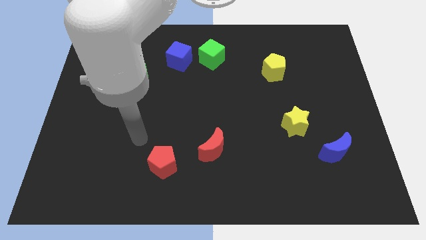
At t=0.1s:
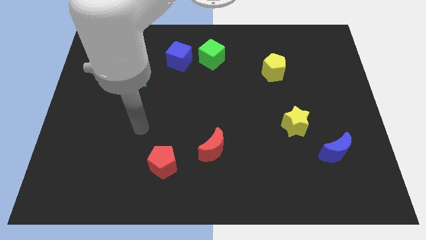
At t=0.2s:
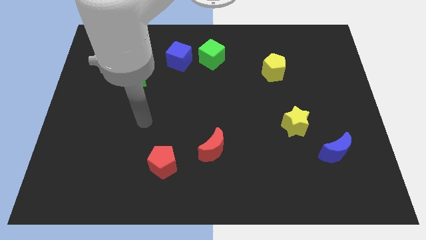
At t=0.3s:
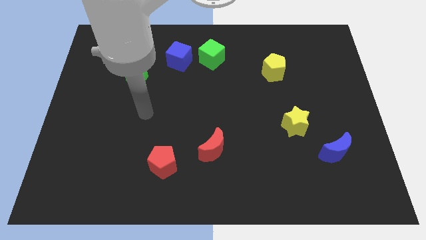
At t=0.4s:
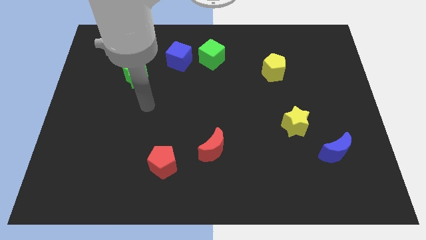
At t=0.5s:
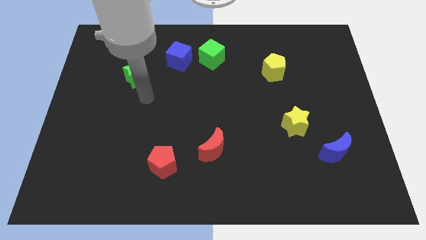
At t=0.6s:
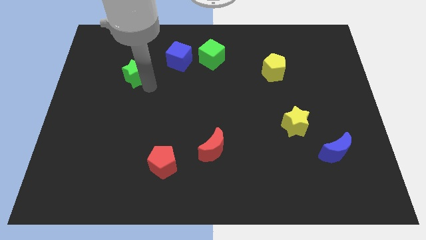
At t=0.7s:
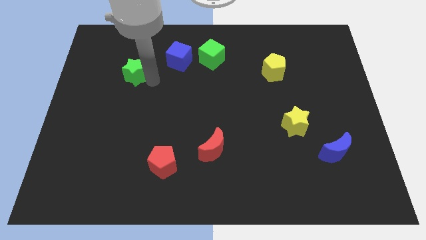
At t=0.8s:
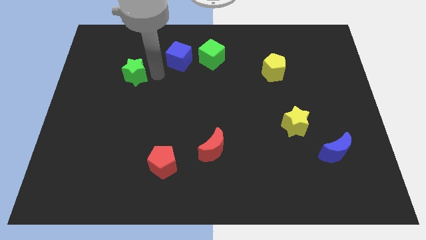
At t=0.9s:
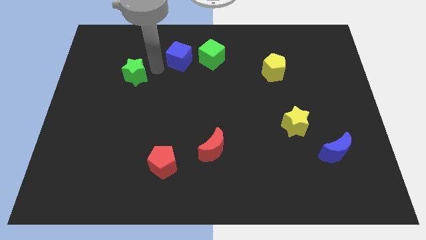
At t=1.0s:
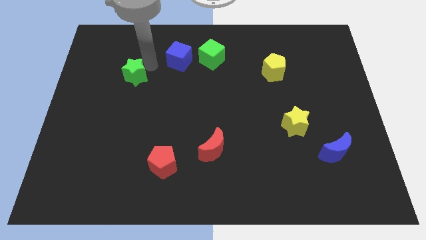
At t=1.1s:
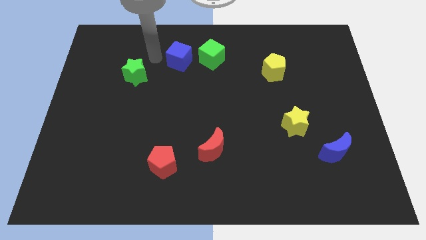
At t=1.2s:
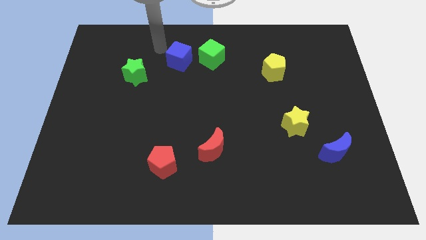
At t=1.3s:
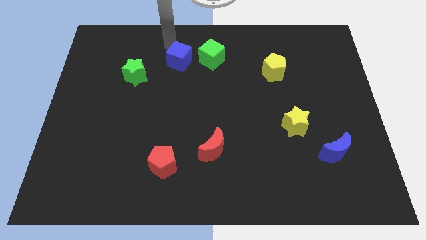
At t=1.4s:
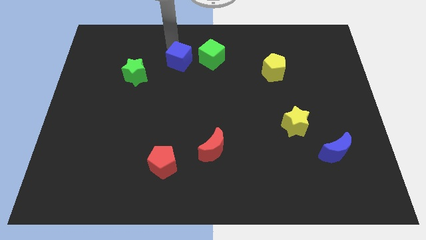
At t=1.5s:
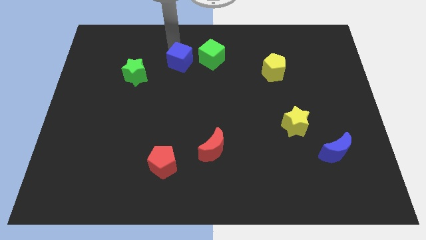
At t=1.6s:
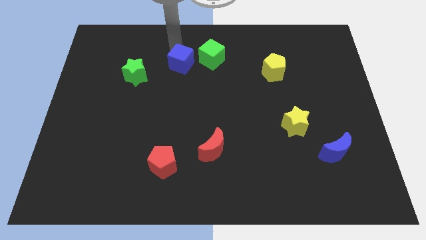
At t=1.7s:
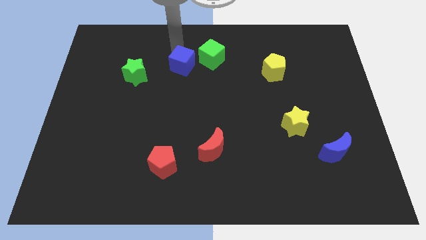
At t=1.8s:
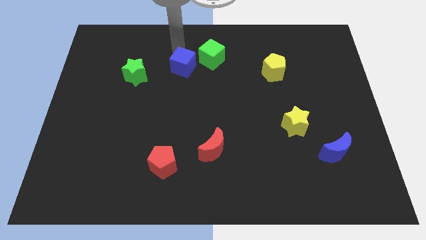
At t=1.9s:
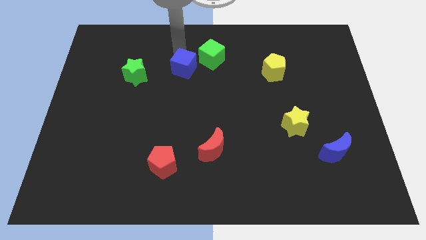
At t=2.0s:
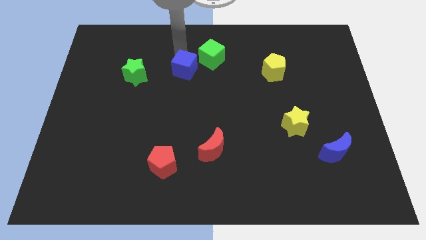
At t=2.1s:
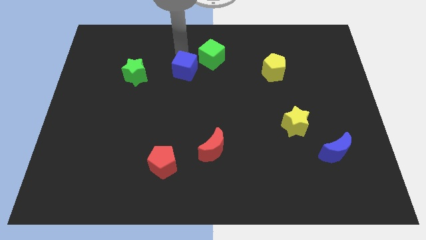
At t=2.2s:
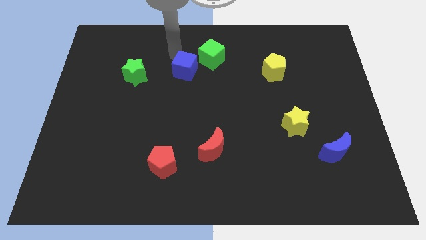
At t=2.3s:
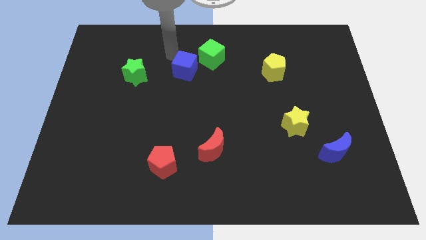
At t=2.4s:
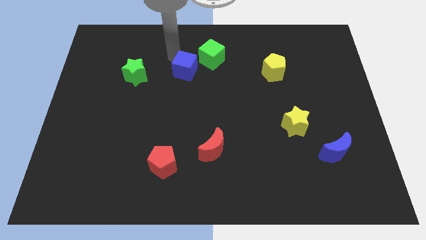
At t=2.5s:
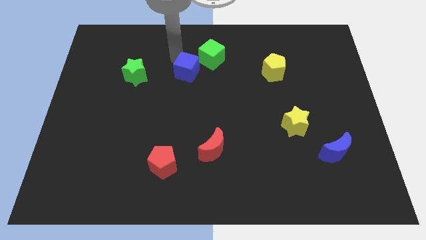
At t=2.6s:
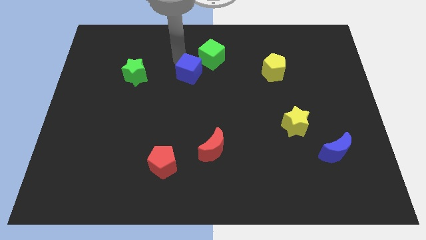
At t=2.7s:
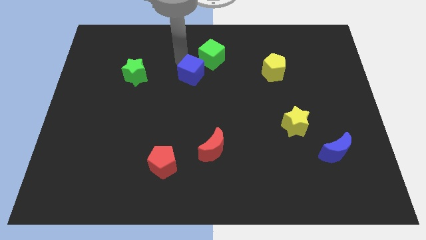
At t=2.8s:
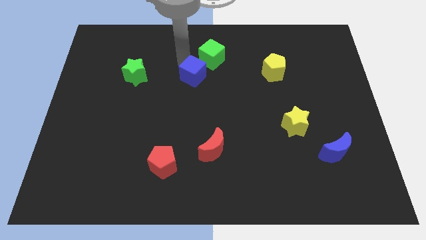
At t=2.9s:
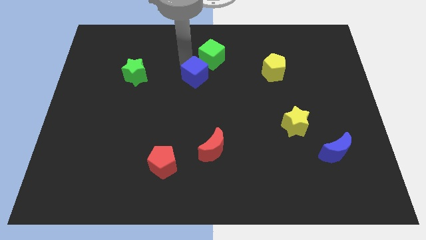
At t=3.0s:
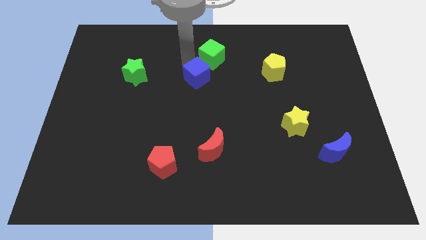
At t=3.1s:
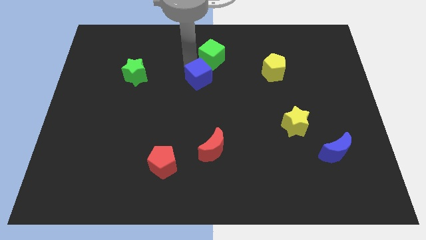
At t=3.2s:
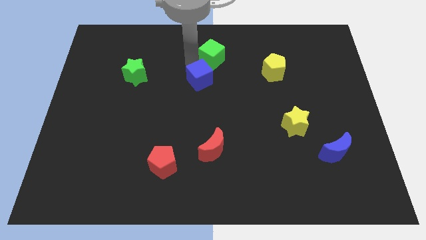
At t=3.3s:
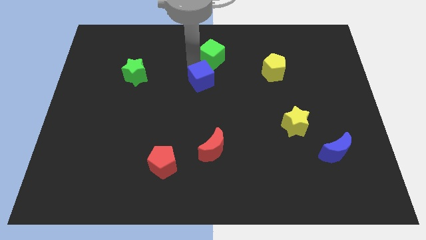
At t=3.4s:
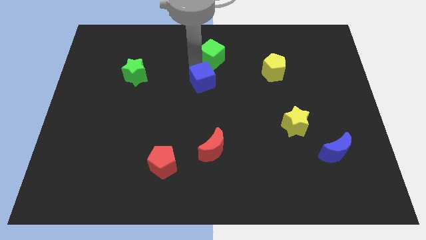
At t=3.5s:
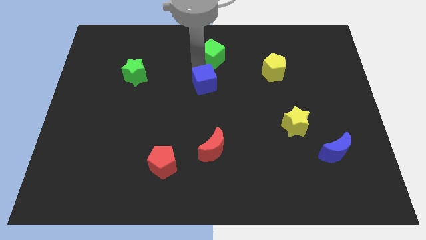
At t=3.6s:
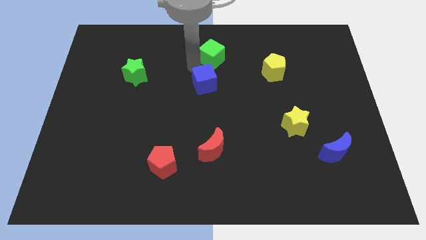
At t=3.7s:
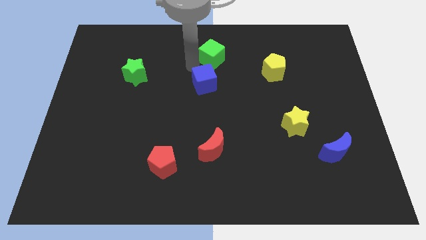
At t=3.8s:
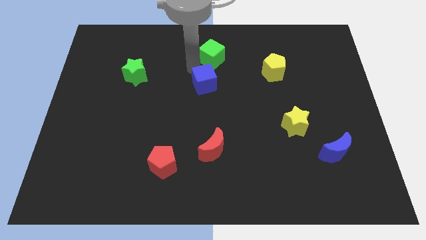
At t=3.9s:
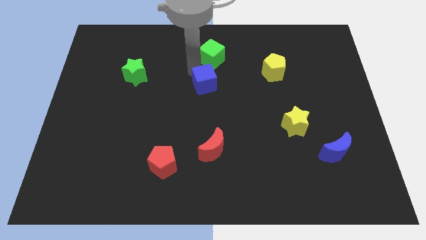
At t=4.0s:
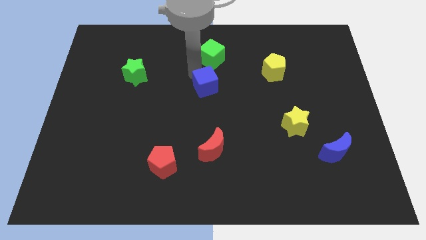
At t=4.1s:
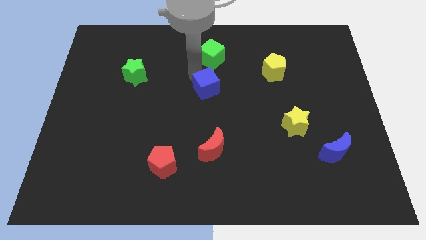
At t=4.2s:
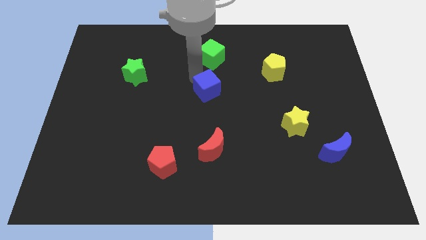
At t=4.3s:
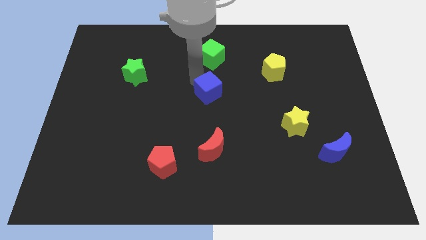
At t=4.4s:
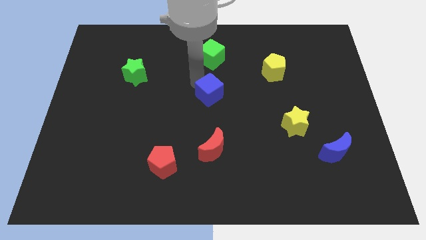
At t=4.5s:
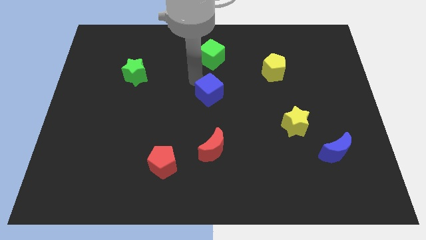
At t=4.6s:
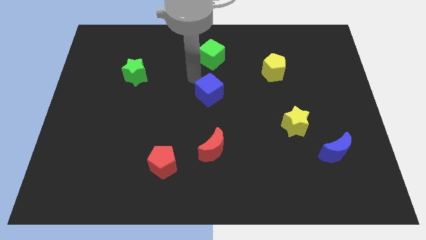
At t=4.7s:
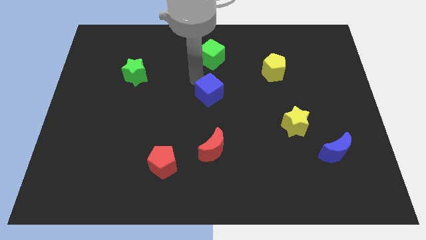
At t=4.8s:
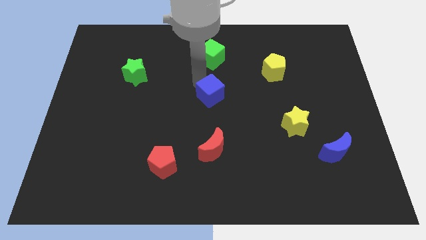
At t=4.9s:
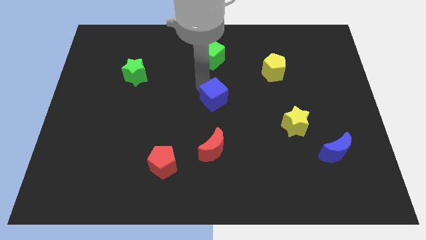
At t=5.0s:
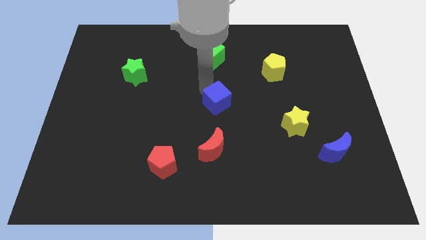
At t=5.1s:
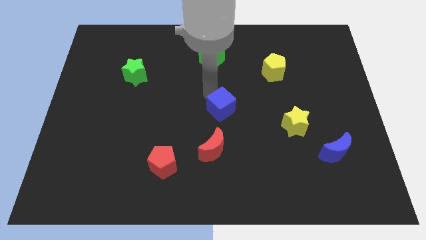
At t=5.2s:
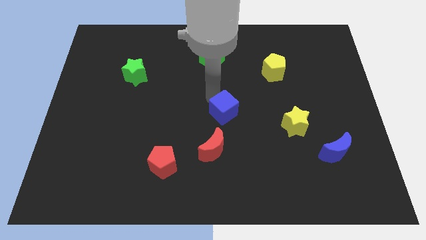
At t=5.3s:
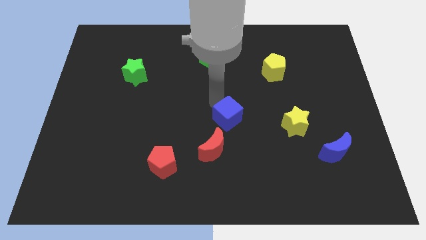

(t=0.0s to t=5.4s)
move the blue cube left of the yellow star

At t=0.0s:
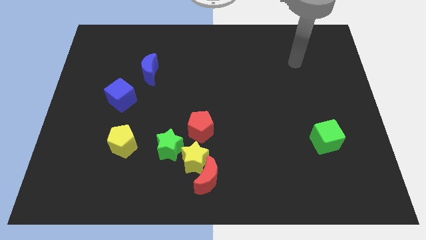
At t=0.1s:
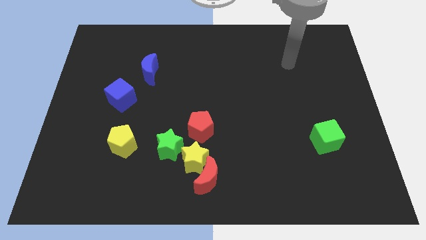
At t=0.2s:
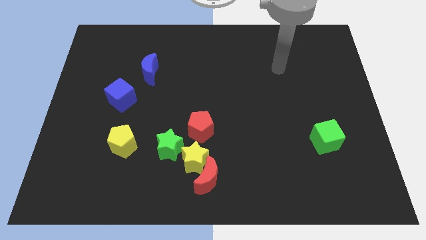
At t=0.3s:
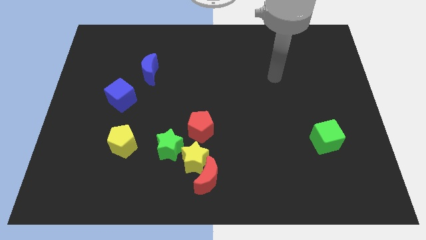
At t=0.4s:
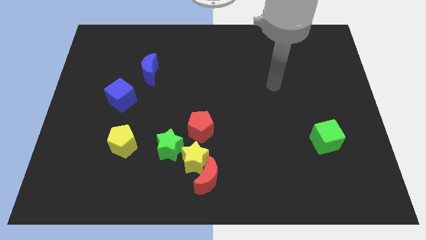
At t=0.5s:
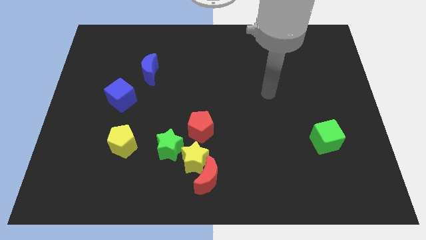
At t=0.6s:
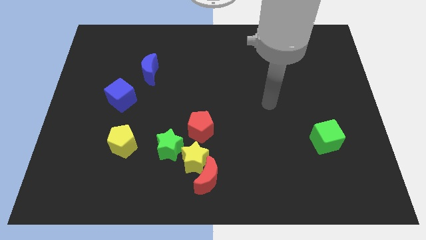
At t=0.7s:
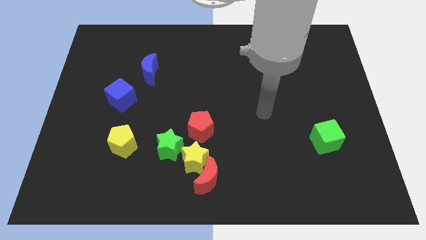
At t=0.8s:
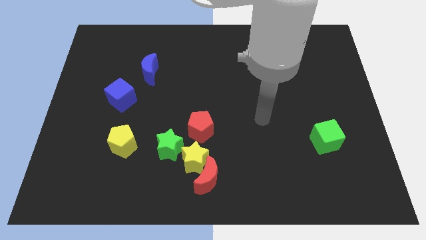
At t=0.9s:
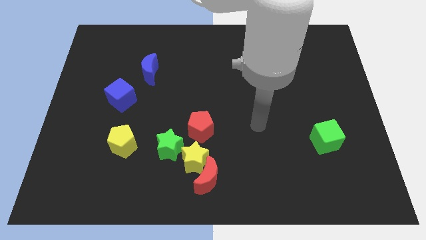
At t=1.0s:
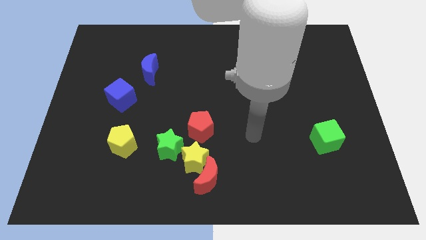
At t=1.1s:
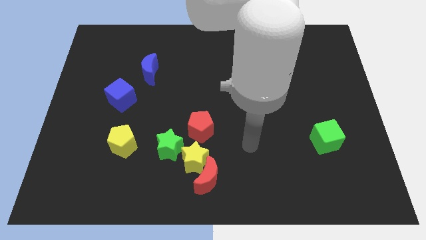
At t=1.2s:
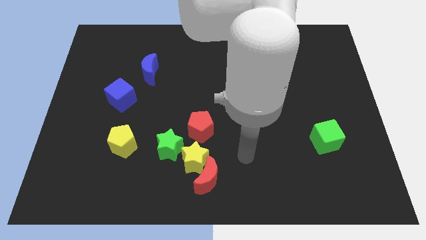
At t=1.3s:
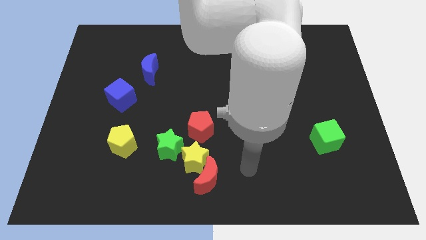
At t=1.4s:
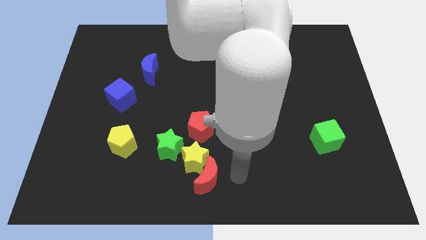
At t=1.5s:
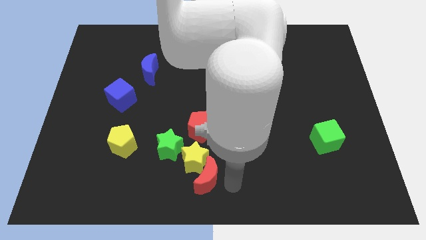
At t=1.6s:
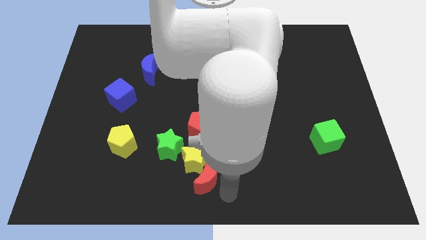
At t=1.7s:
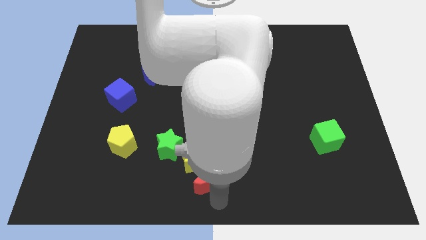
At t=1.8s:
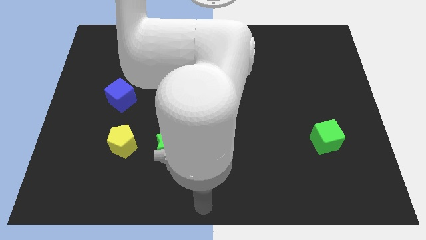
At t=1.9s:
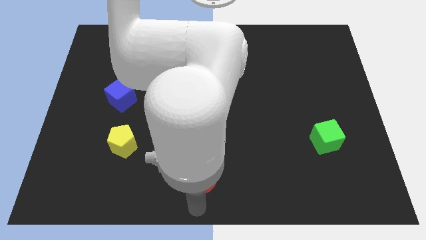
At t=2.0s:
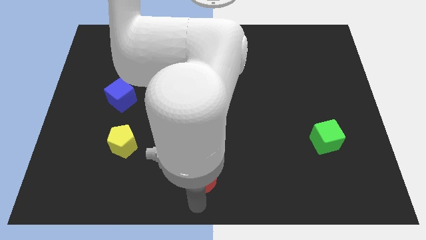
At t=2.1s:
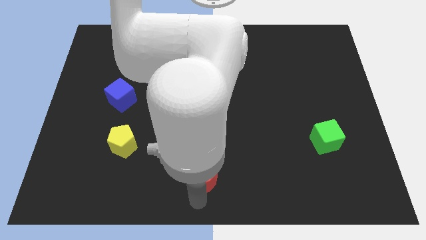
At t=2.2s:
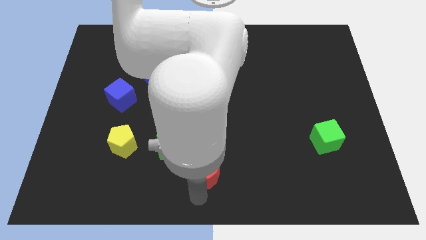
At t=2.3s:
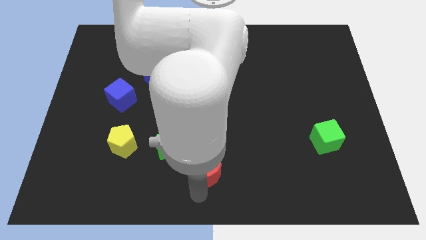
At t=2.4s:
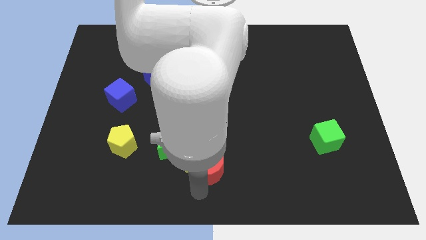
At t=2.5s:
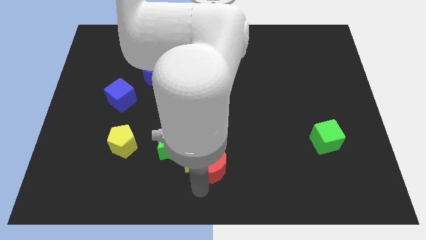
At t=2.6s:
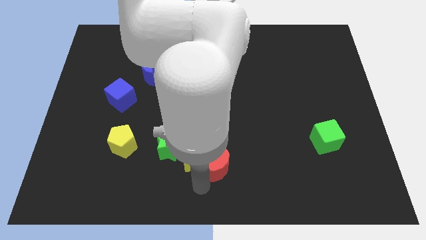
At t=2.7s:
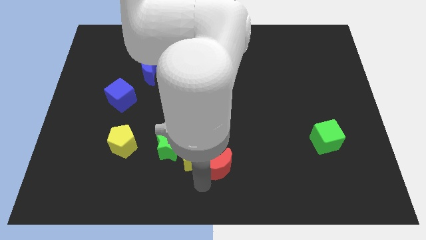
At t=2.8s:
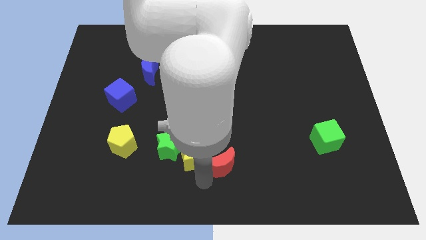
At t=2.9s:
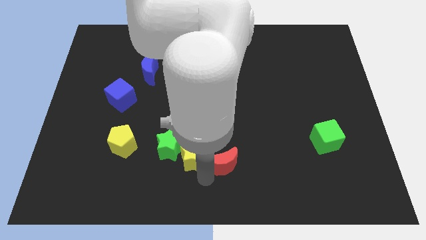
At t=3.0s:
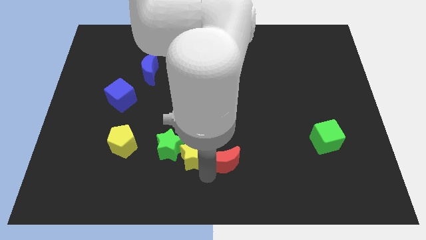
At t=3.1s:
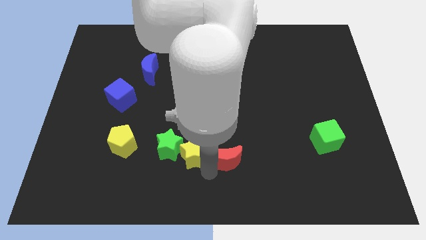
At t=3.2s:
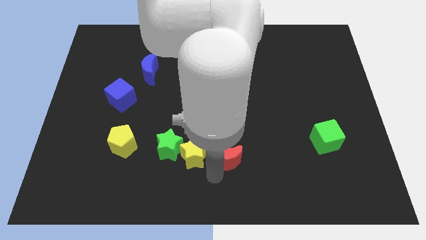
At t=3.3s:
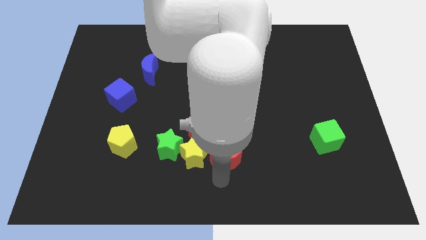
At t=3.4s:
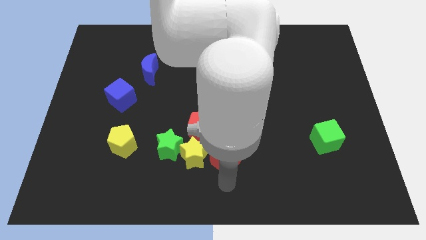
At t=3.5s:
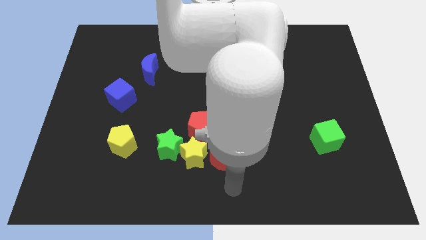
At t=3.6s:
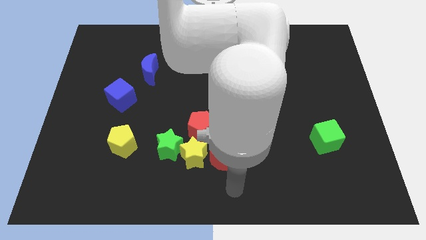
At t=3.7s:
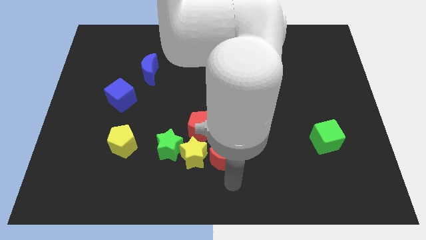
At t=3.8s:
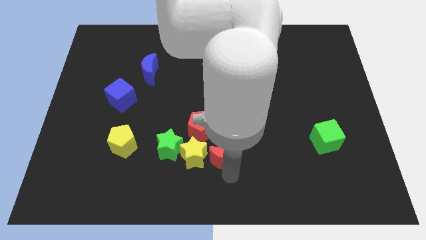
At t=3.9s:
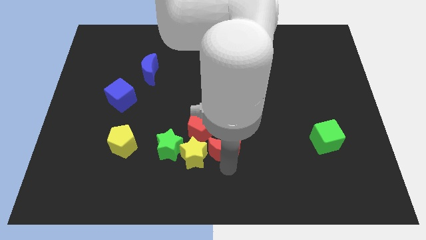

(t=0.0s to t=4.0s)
move the red moon to the top right of the yellow star
